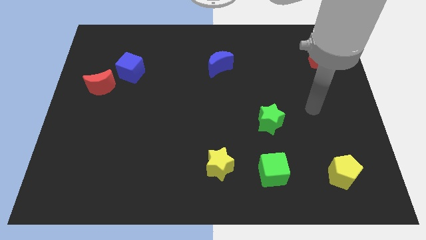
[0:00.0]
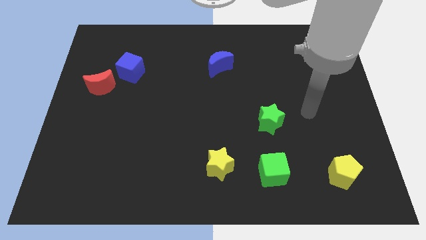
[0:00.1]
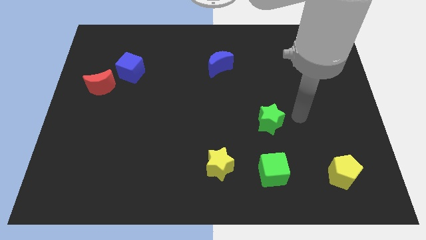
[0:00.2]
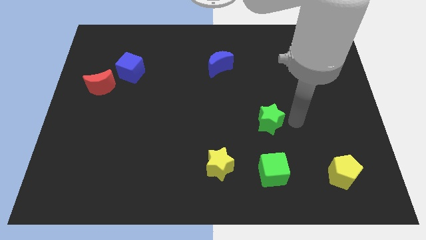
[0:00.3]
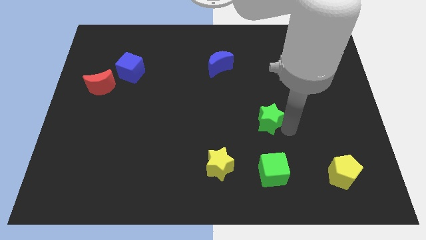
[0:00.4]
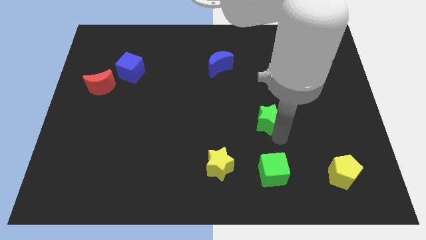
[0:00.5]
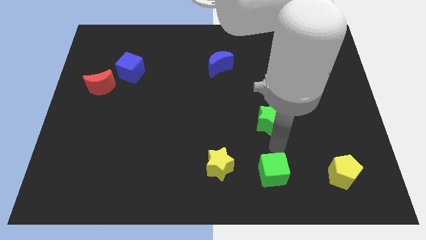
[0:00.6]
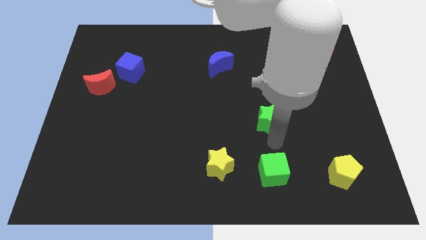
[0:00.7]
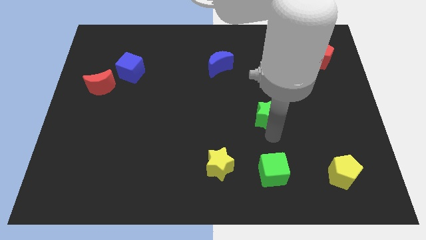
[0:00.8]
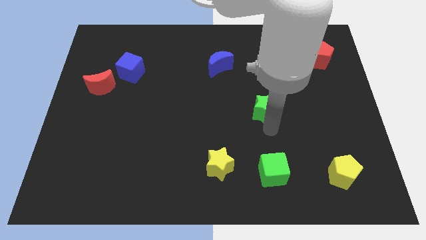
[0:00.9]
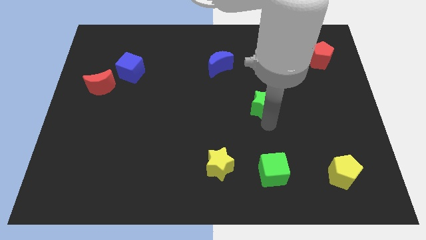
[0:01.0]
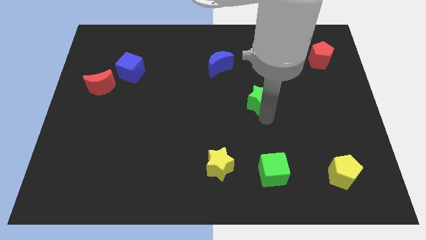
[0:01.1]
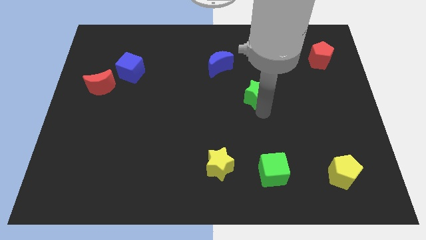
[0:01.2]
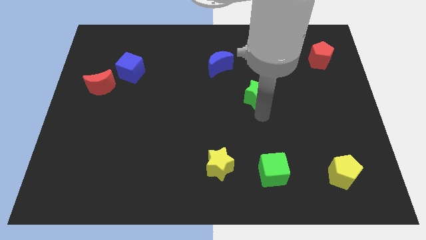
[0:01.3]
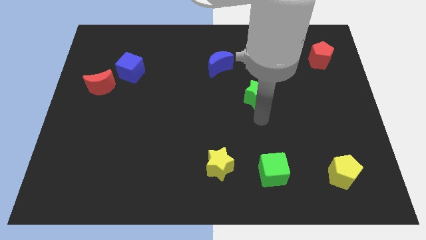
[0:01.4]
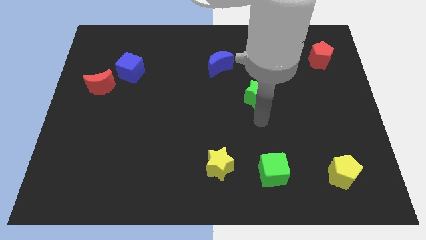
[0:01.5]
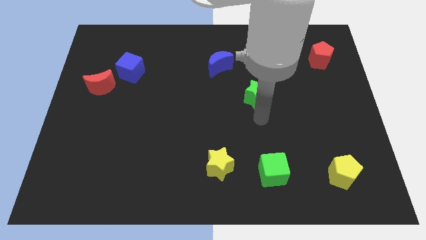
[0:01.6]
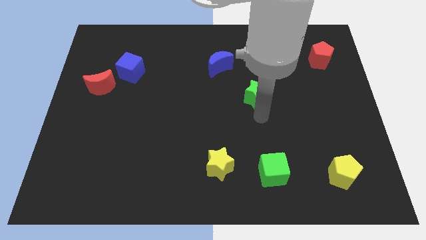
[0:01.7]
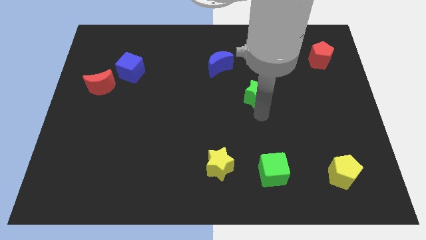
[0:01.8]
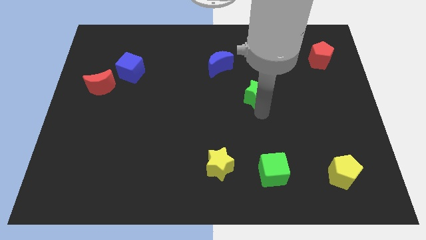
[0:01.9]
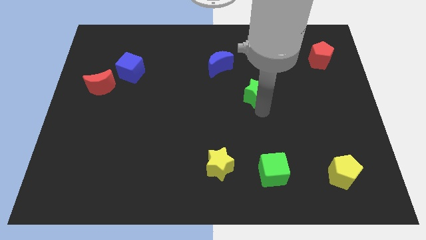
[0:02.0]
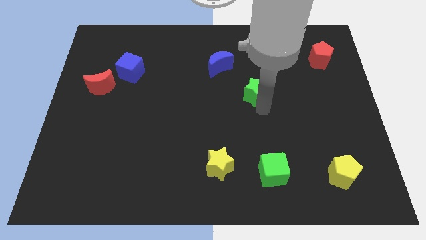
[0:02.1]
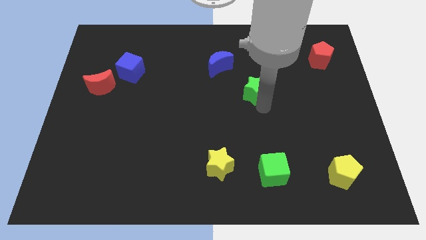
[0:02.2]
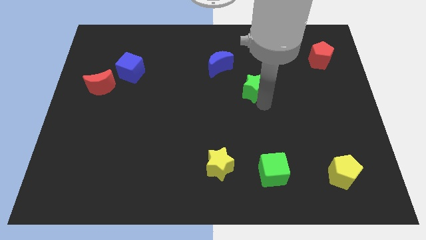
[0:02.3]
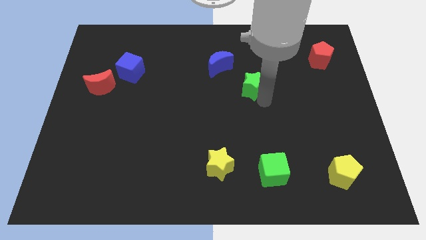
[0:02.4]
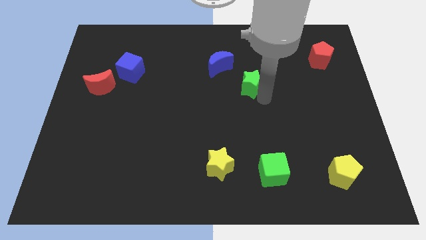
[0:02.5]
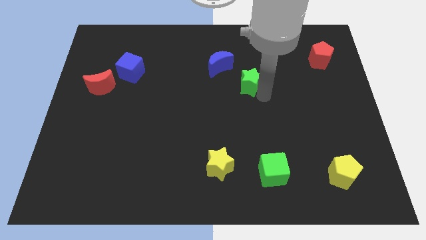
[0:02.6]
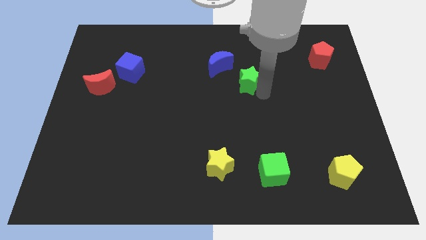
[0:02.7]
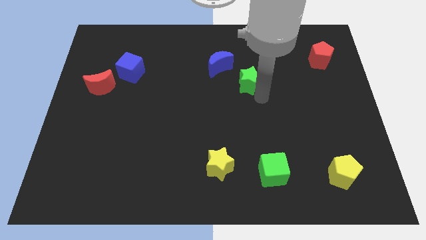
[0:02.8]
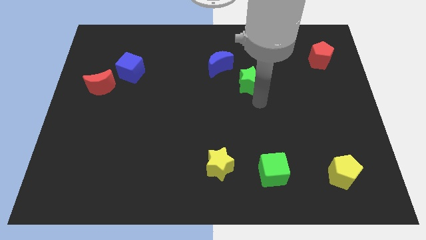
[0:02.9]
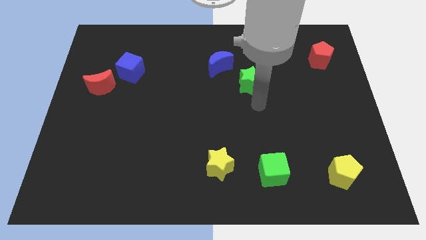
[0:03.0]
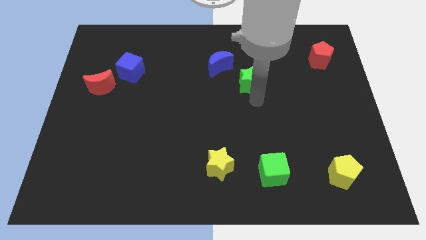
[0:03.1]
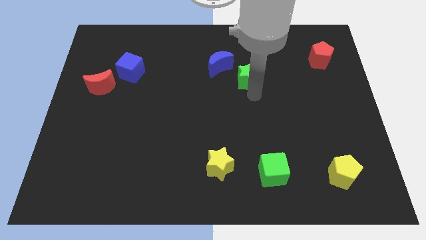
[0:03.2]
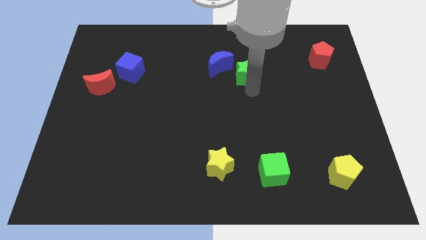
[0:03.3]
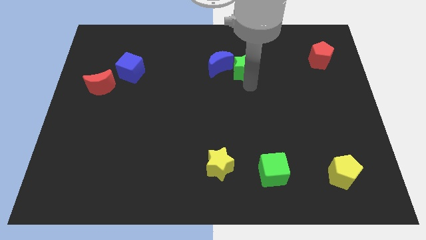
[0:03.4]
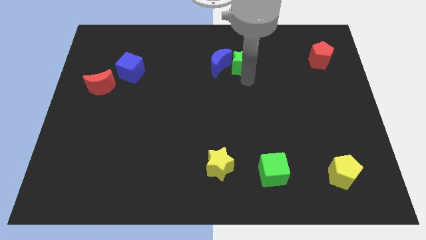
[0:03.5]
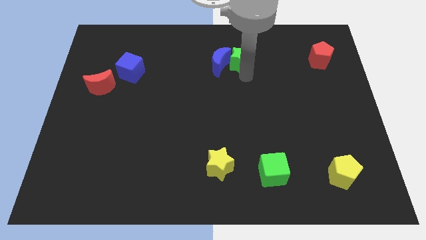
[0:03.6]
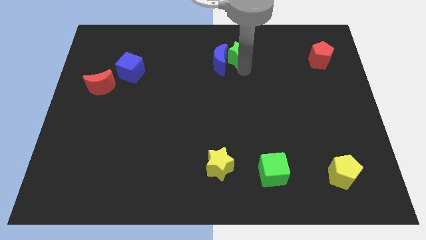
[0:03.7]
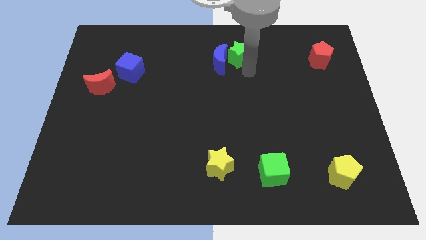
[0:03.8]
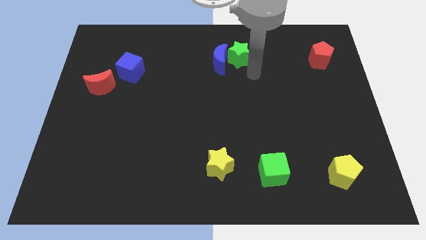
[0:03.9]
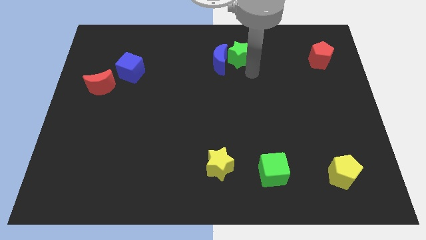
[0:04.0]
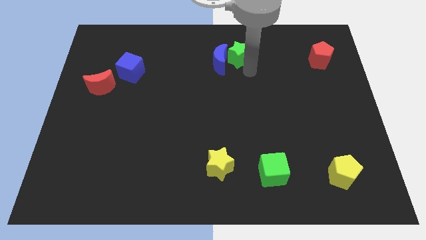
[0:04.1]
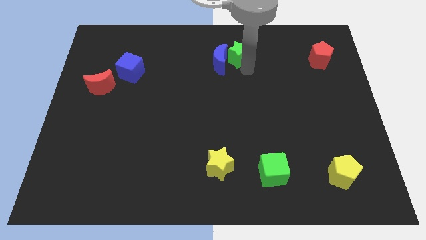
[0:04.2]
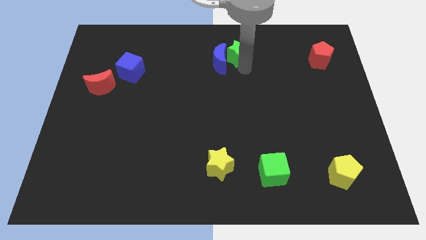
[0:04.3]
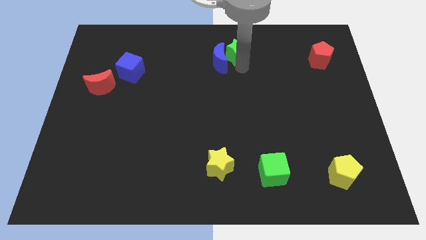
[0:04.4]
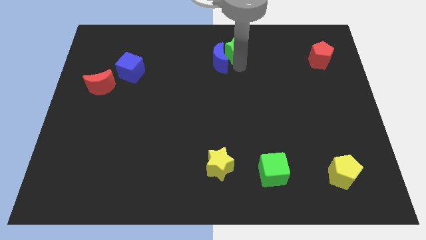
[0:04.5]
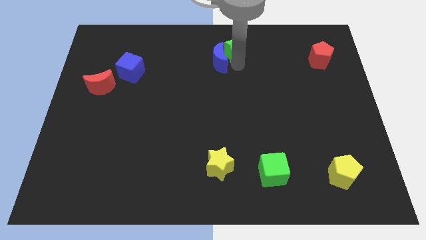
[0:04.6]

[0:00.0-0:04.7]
slide the green star to the top side

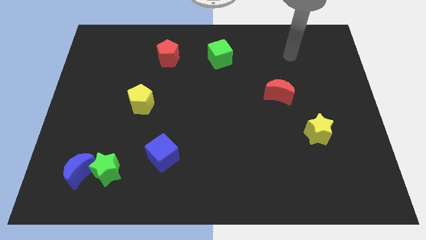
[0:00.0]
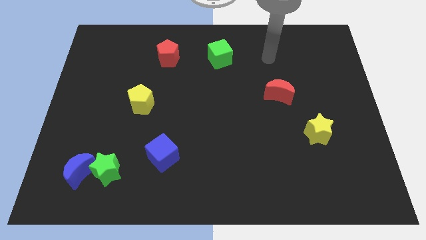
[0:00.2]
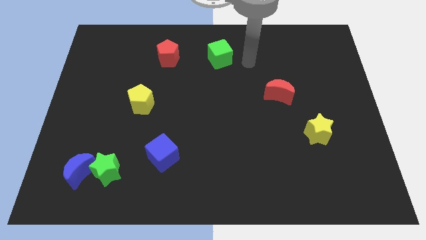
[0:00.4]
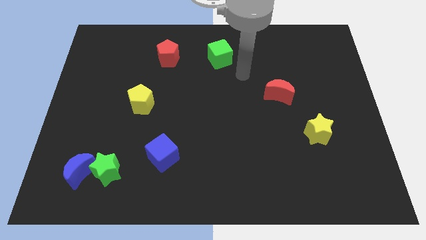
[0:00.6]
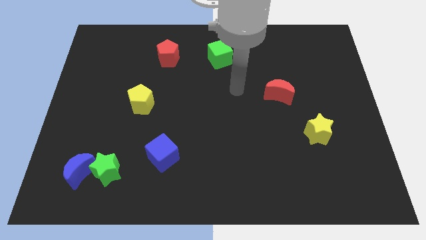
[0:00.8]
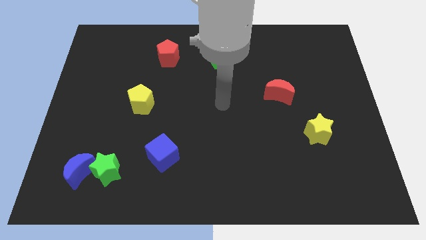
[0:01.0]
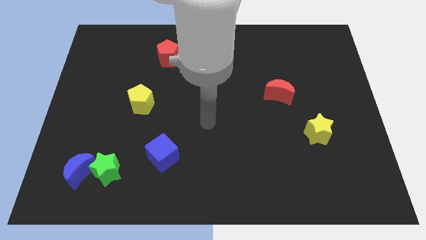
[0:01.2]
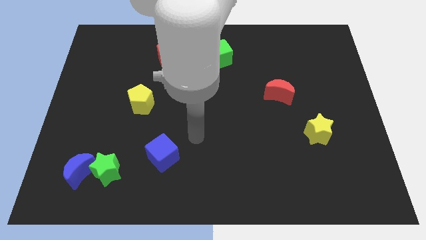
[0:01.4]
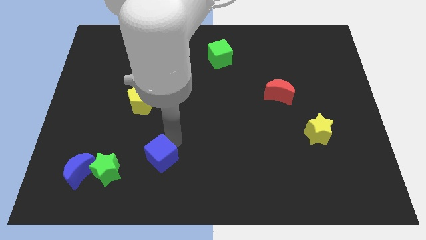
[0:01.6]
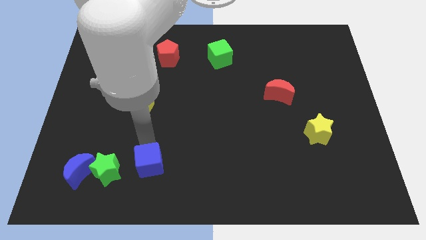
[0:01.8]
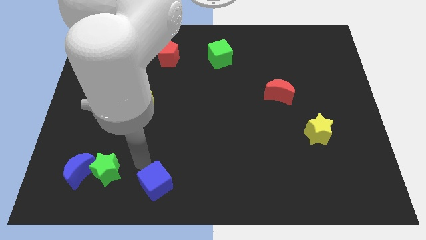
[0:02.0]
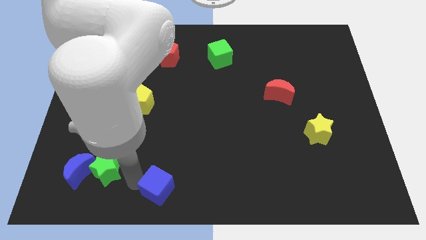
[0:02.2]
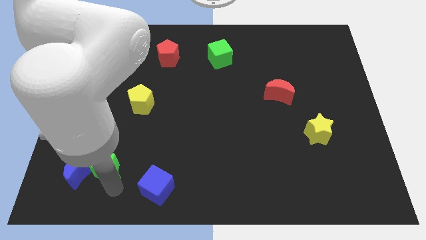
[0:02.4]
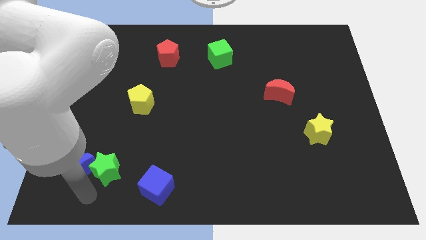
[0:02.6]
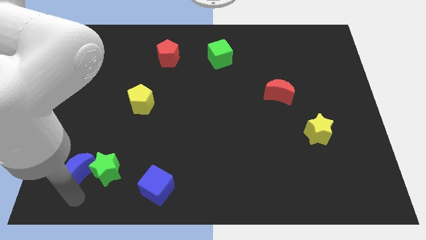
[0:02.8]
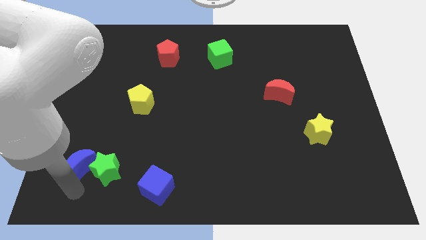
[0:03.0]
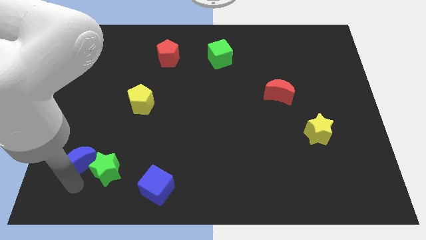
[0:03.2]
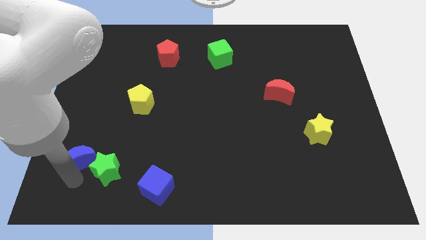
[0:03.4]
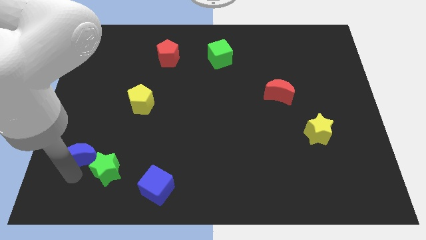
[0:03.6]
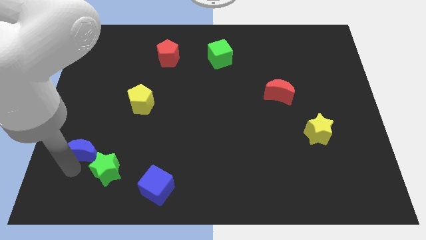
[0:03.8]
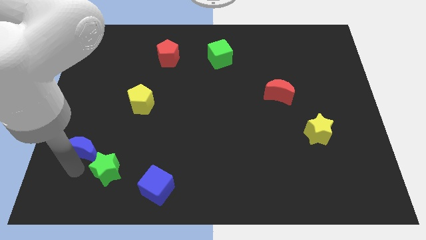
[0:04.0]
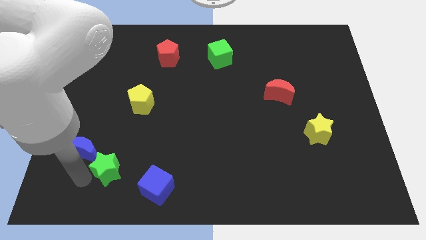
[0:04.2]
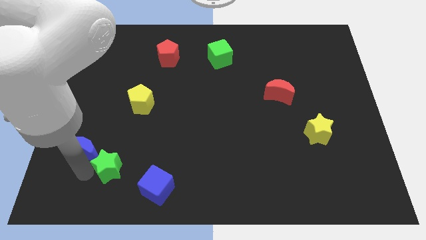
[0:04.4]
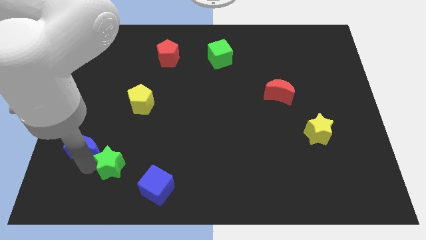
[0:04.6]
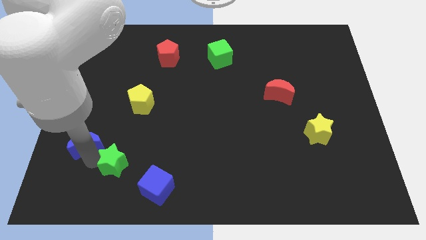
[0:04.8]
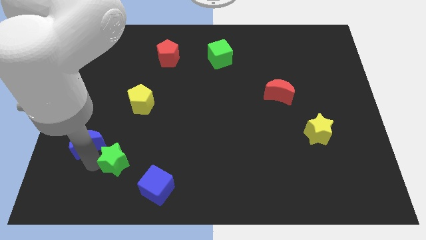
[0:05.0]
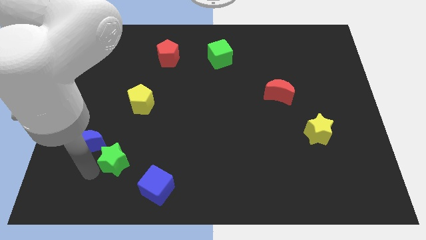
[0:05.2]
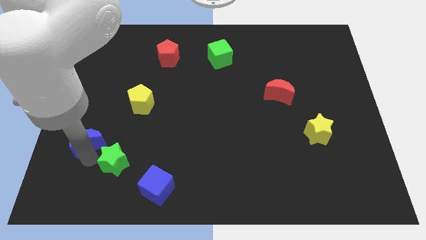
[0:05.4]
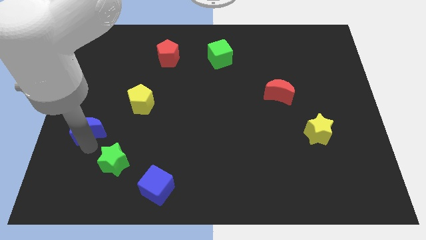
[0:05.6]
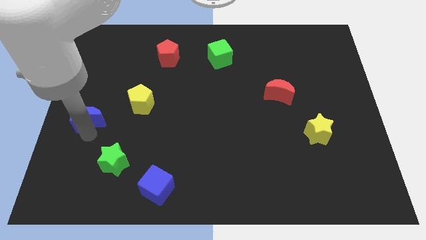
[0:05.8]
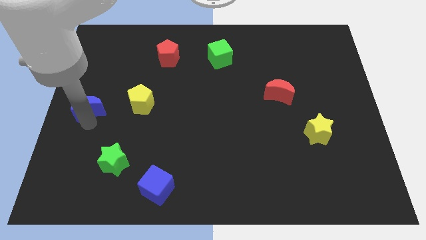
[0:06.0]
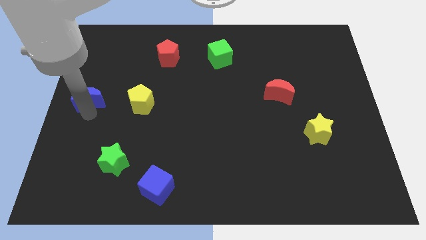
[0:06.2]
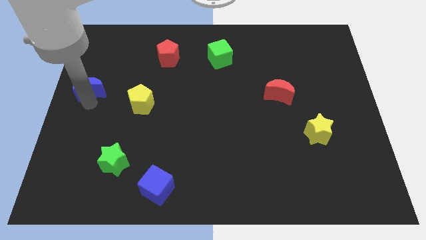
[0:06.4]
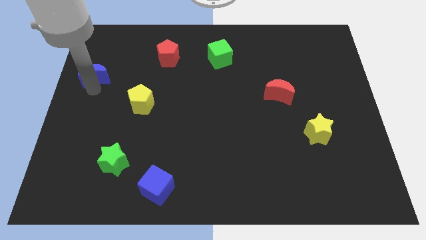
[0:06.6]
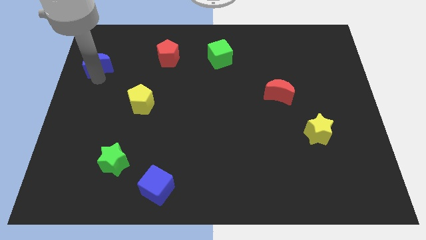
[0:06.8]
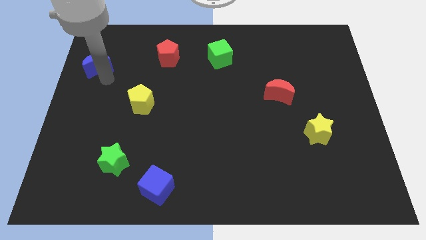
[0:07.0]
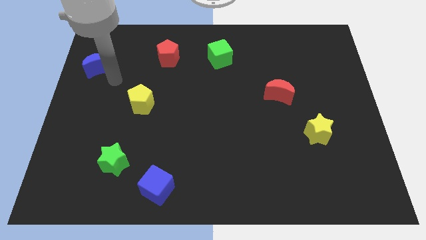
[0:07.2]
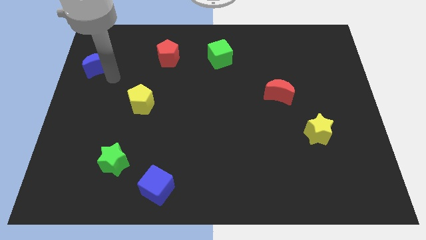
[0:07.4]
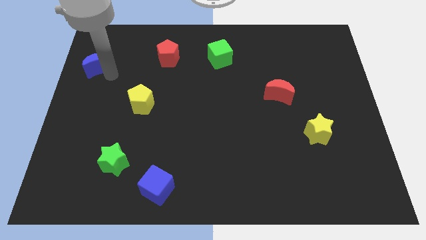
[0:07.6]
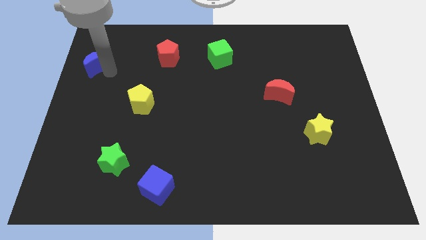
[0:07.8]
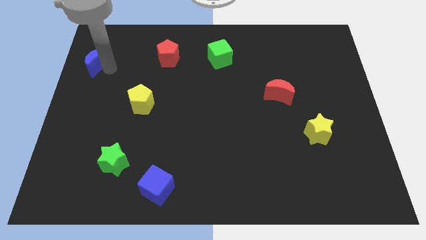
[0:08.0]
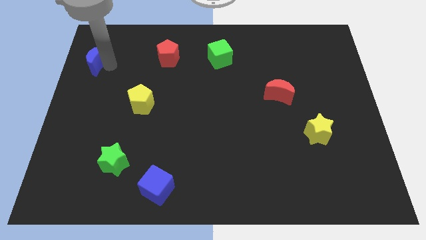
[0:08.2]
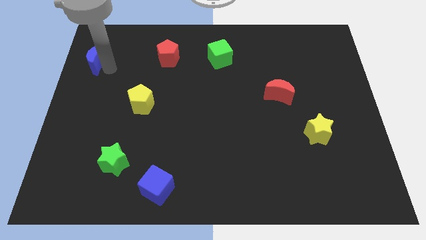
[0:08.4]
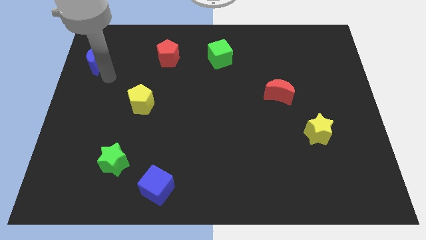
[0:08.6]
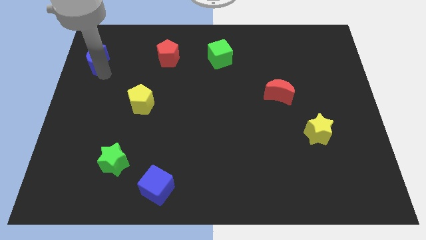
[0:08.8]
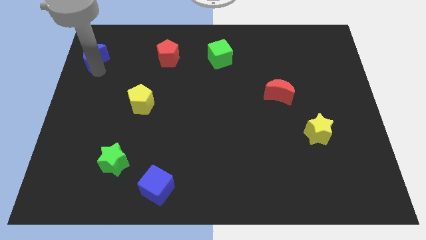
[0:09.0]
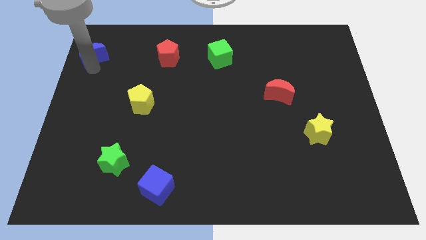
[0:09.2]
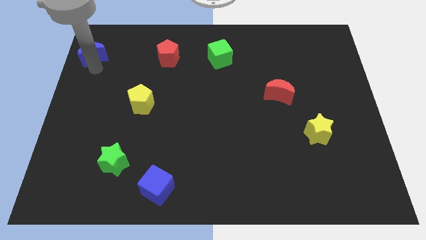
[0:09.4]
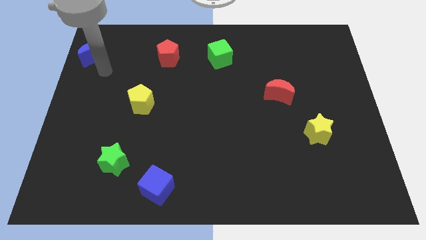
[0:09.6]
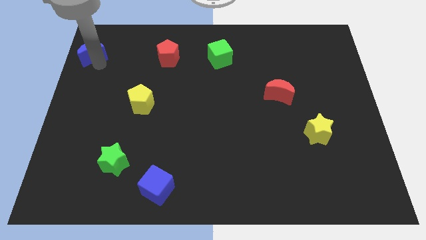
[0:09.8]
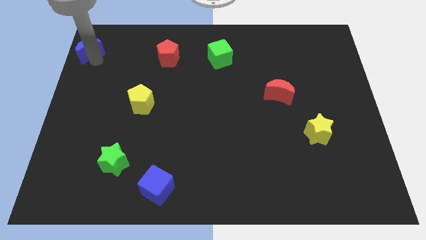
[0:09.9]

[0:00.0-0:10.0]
push the blue moon to the upper left corner
